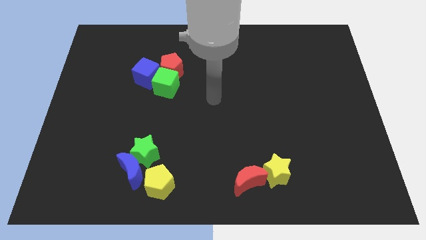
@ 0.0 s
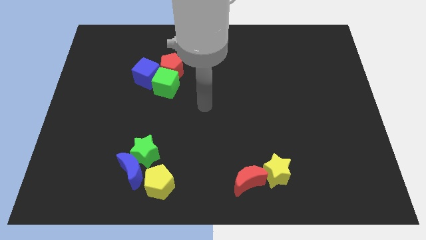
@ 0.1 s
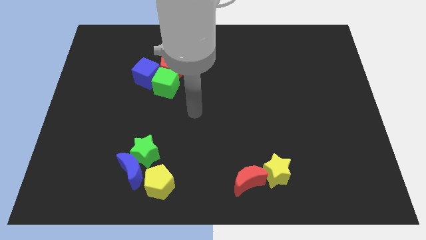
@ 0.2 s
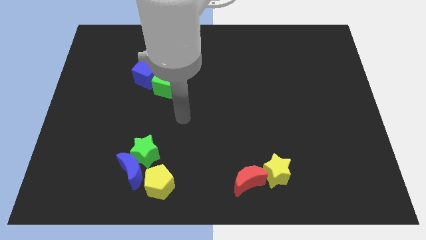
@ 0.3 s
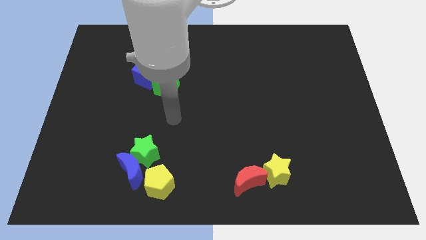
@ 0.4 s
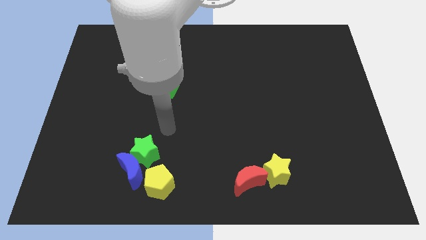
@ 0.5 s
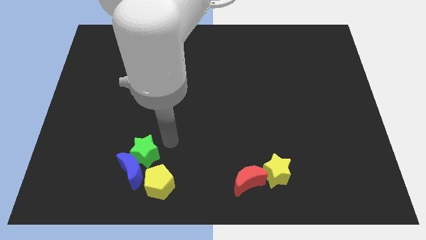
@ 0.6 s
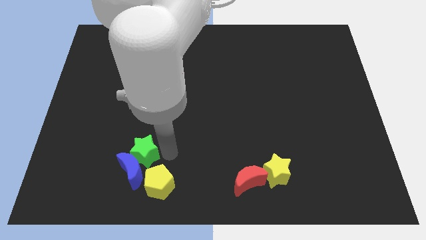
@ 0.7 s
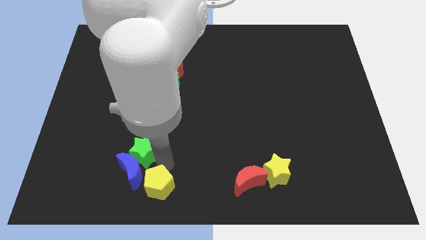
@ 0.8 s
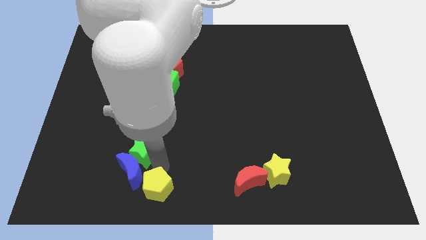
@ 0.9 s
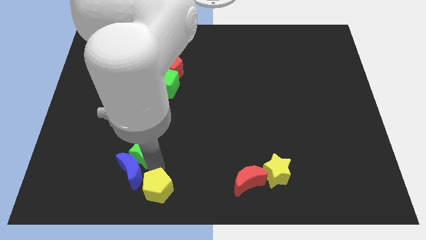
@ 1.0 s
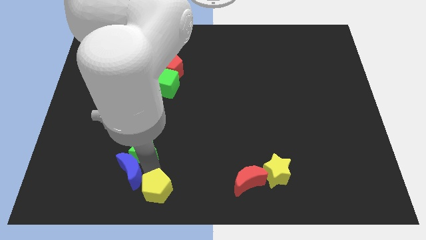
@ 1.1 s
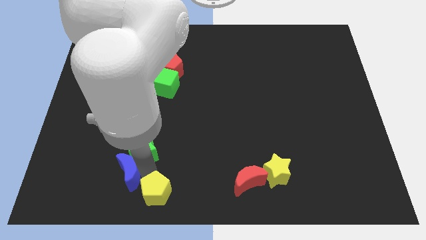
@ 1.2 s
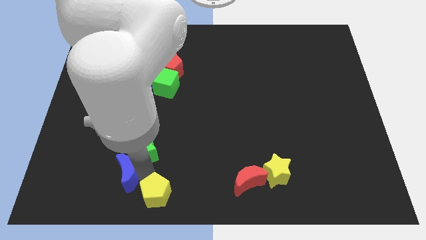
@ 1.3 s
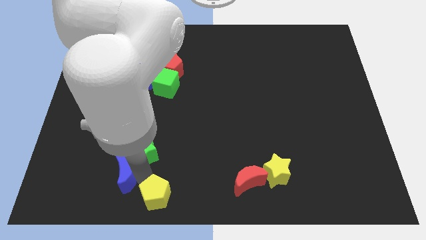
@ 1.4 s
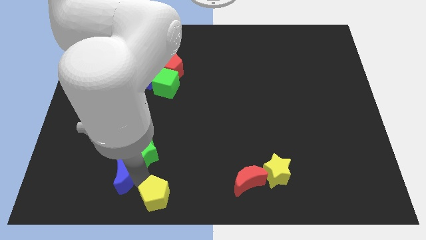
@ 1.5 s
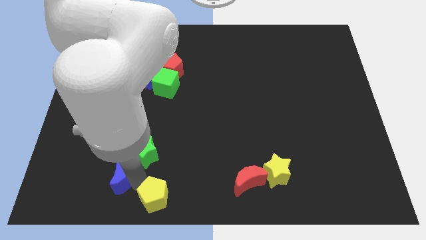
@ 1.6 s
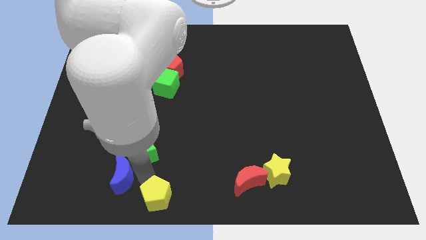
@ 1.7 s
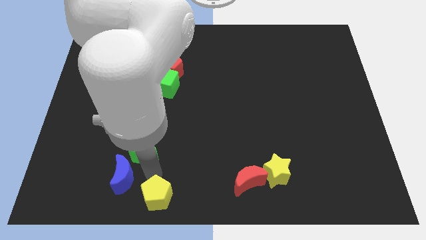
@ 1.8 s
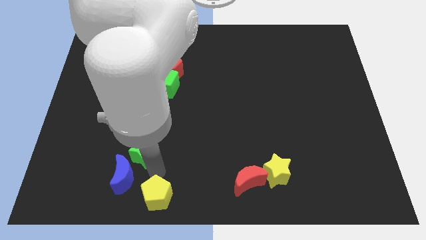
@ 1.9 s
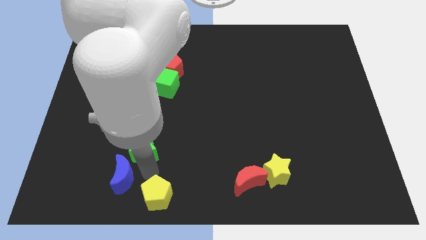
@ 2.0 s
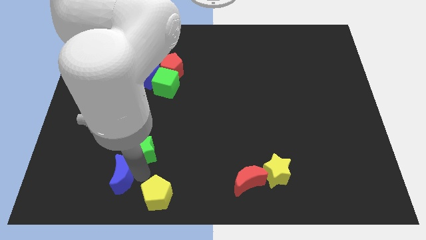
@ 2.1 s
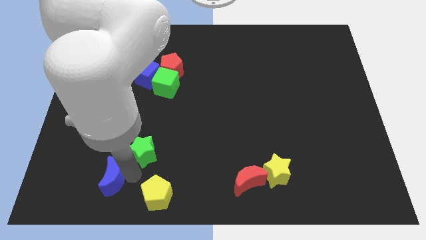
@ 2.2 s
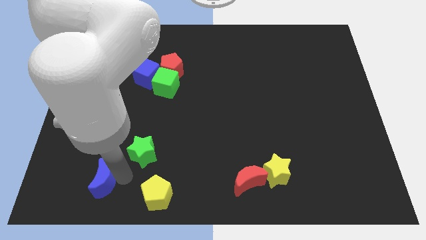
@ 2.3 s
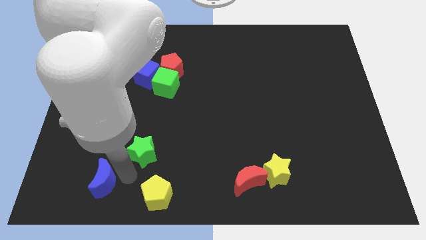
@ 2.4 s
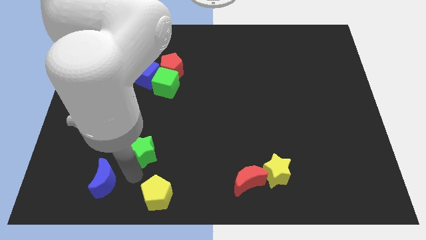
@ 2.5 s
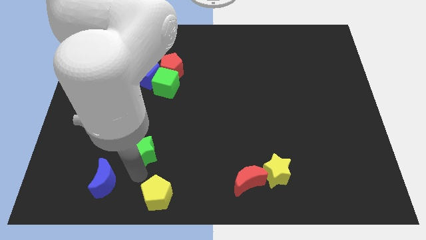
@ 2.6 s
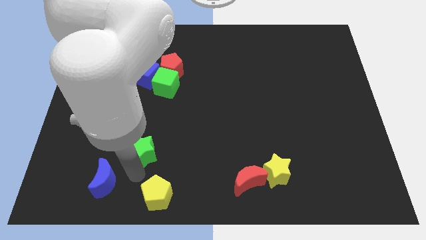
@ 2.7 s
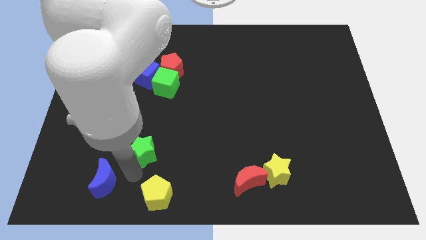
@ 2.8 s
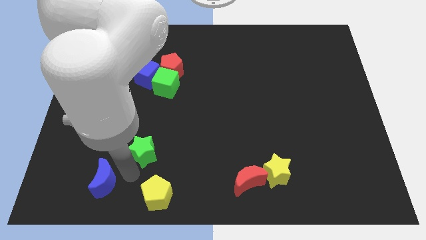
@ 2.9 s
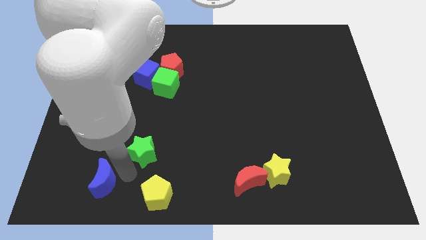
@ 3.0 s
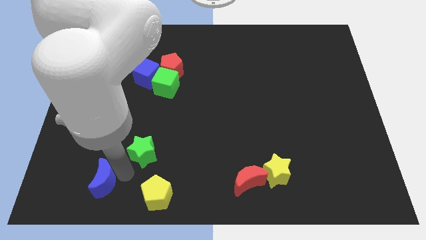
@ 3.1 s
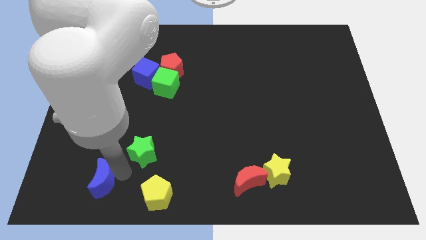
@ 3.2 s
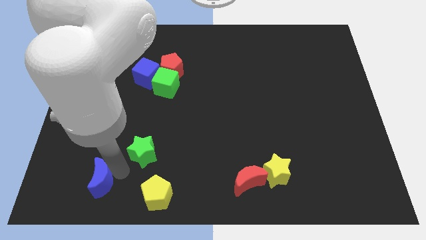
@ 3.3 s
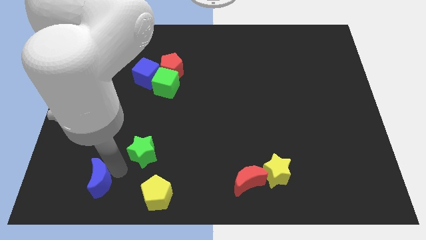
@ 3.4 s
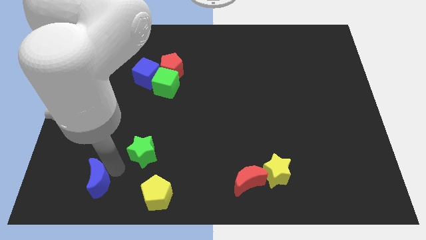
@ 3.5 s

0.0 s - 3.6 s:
pull the blue moon apart from the green star and yellow pentagon

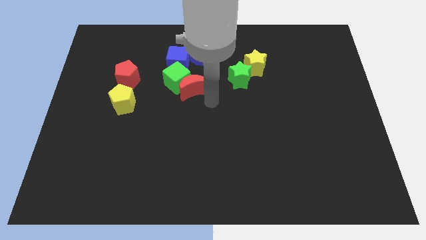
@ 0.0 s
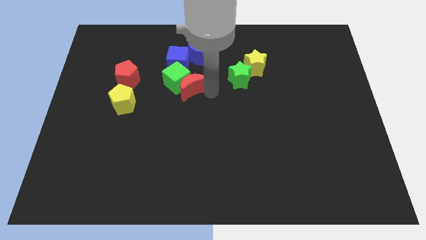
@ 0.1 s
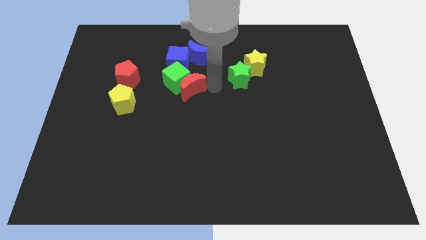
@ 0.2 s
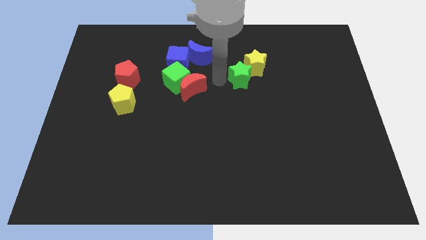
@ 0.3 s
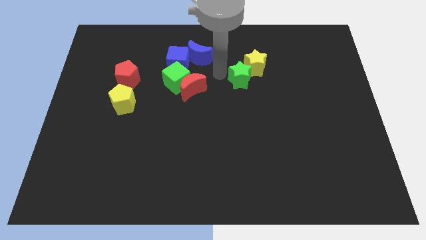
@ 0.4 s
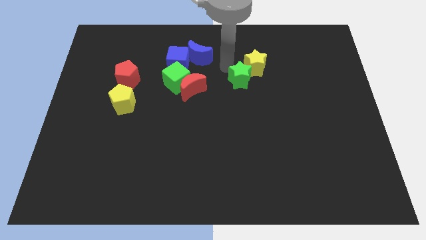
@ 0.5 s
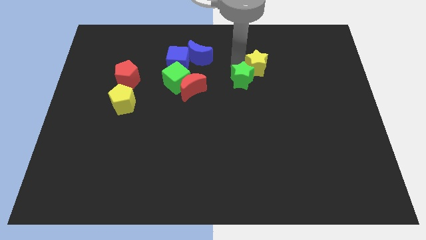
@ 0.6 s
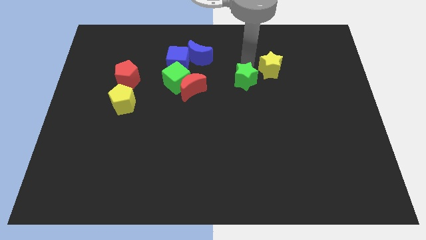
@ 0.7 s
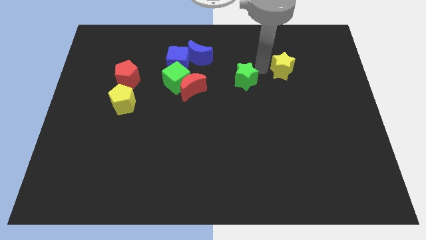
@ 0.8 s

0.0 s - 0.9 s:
separate the green star from the yellow star

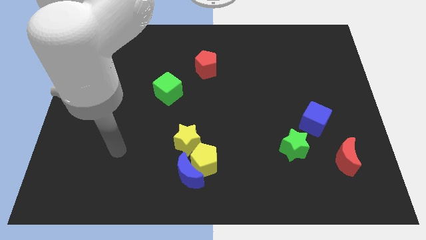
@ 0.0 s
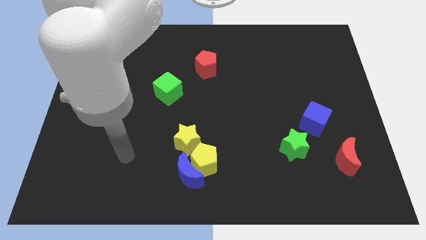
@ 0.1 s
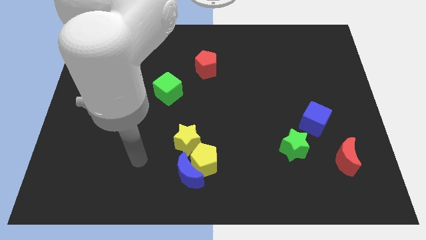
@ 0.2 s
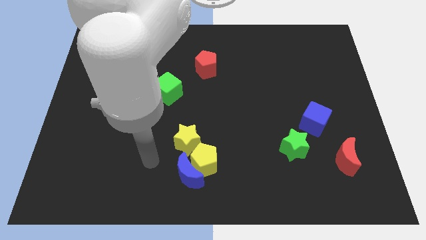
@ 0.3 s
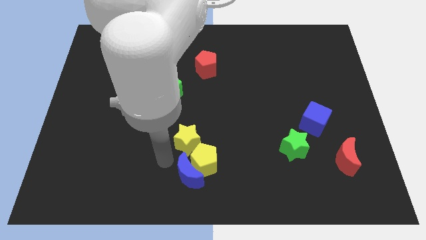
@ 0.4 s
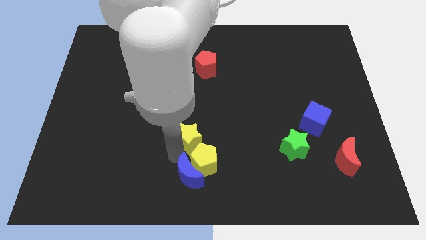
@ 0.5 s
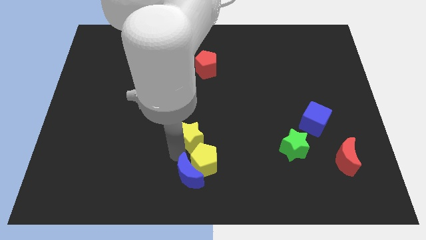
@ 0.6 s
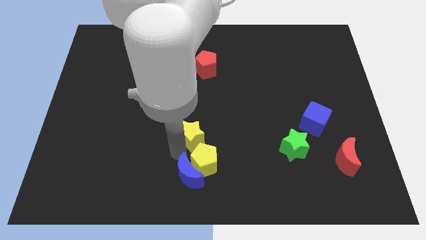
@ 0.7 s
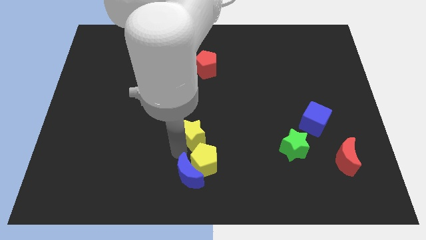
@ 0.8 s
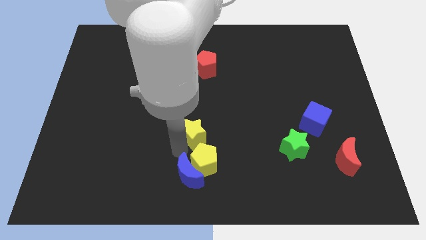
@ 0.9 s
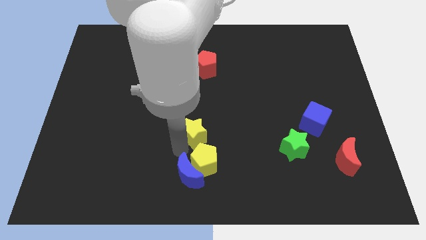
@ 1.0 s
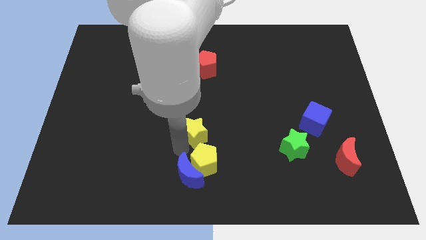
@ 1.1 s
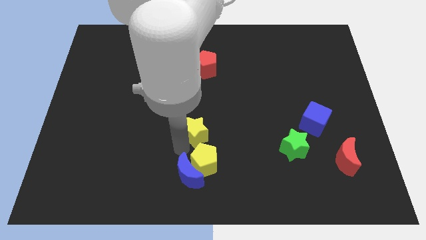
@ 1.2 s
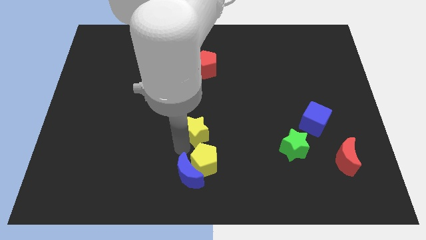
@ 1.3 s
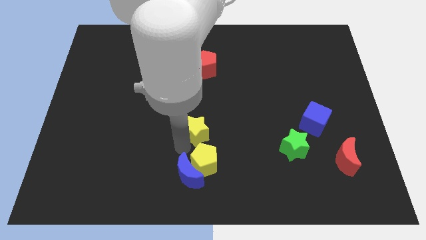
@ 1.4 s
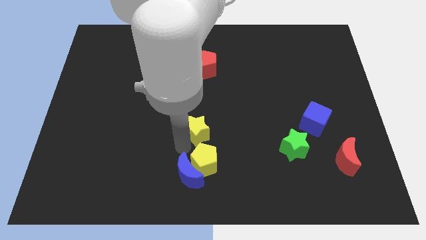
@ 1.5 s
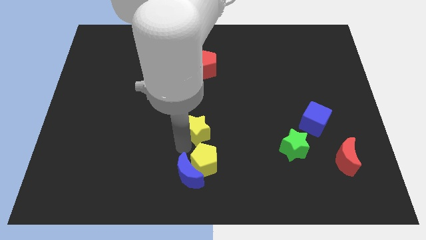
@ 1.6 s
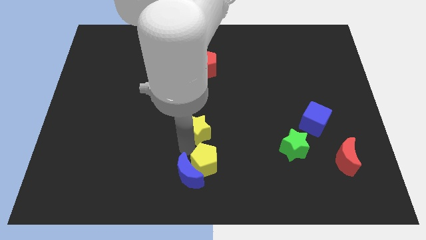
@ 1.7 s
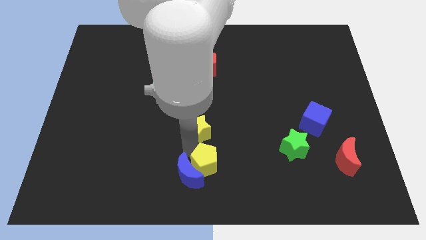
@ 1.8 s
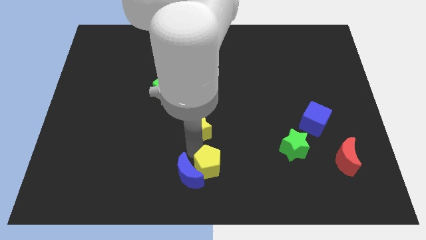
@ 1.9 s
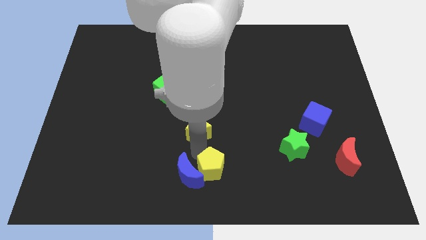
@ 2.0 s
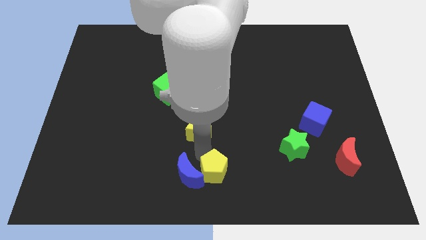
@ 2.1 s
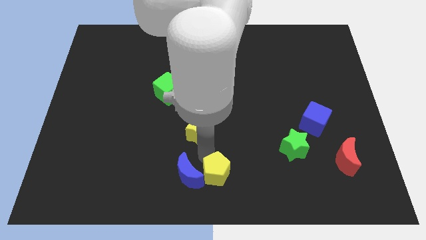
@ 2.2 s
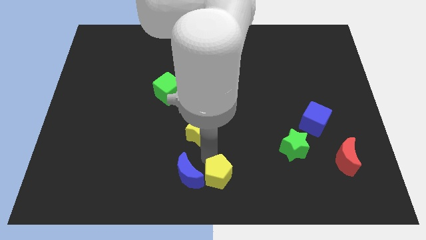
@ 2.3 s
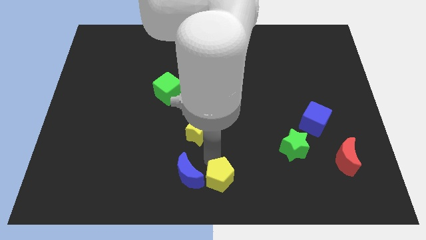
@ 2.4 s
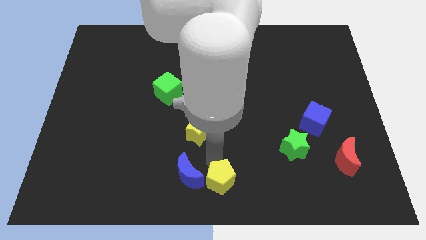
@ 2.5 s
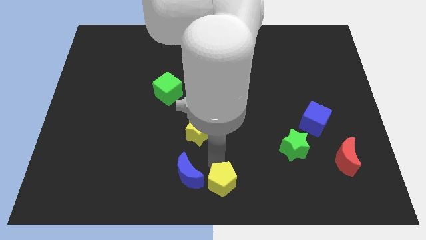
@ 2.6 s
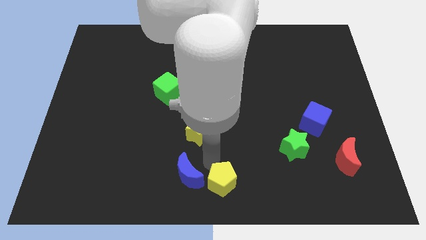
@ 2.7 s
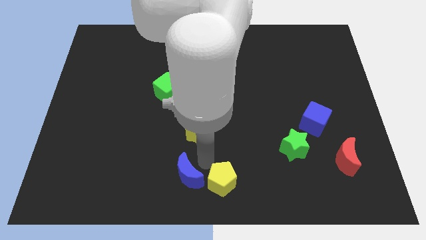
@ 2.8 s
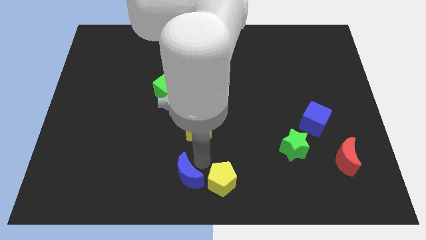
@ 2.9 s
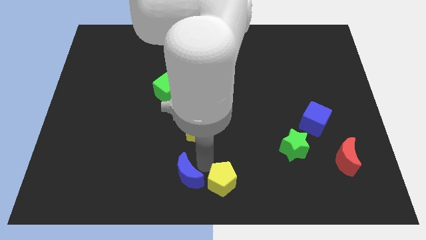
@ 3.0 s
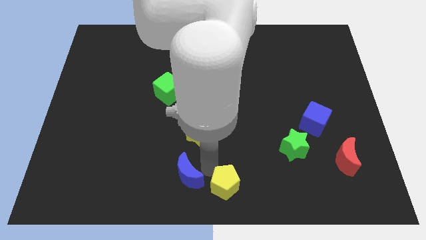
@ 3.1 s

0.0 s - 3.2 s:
pull the yellow pentagon apart from the blue moon and yellow star

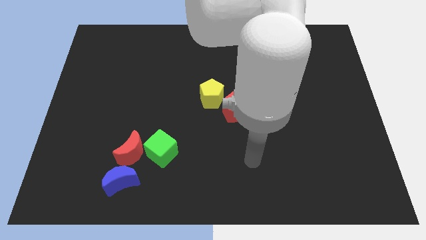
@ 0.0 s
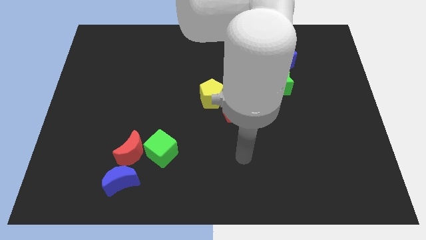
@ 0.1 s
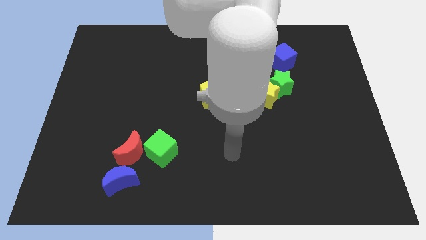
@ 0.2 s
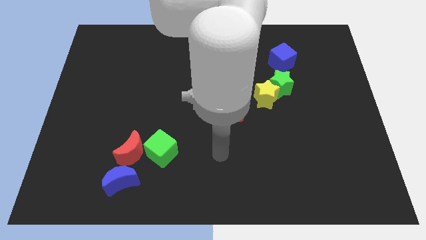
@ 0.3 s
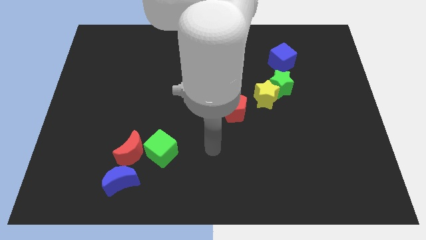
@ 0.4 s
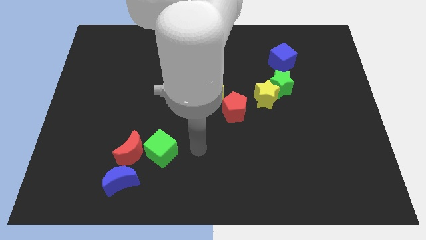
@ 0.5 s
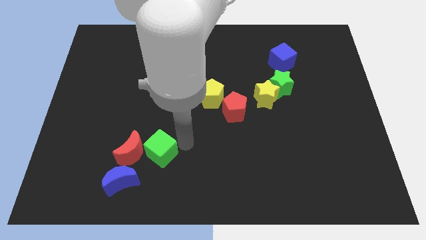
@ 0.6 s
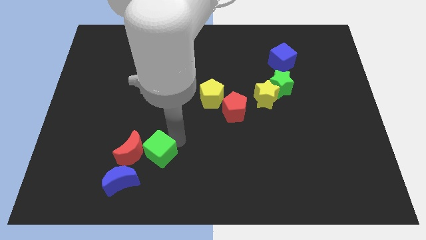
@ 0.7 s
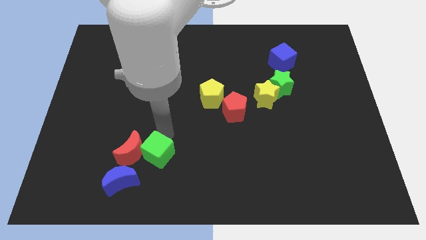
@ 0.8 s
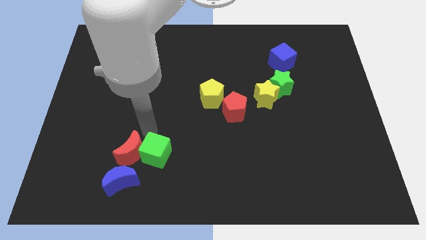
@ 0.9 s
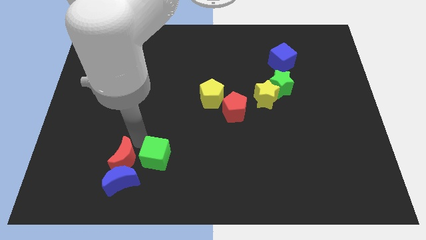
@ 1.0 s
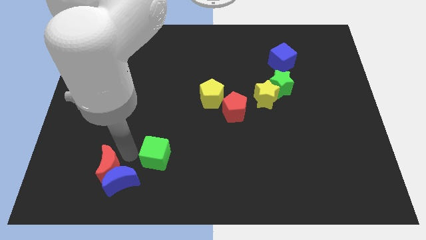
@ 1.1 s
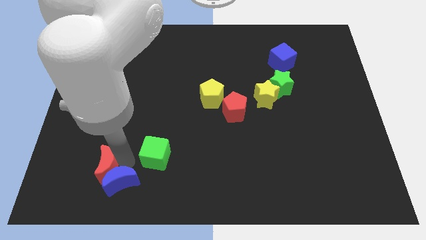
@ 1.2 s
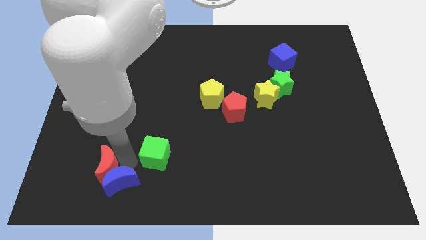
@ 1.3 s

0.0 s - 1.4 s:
pull the green cube apart from the red moon

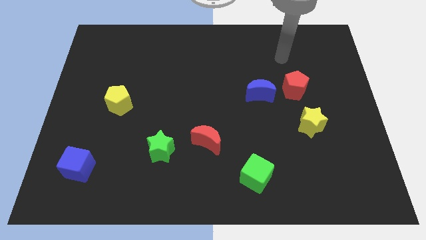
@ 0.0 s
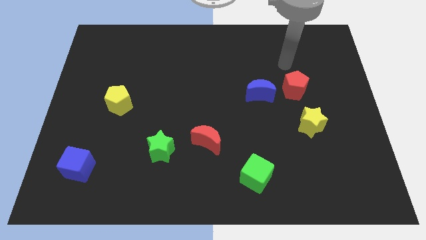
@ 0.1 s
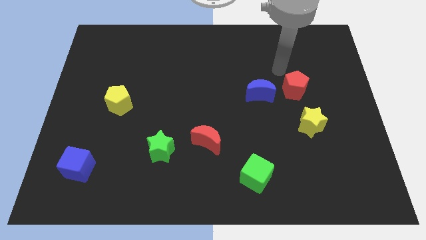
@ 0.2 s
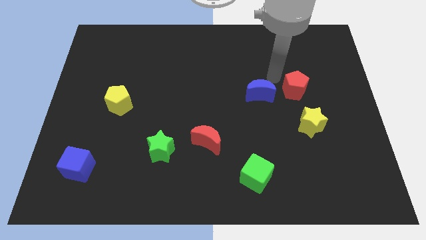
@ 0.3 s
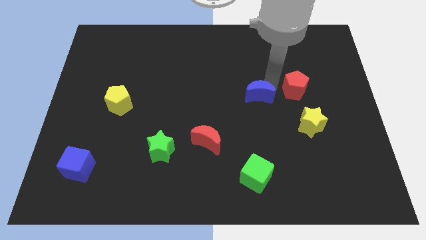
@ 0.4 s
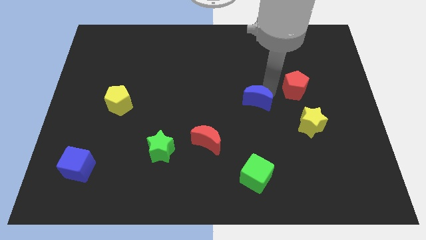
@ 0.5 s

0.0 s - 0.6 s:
separate the red pentagon from the blue moon
